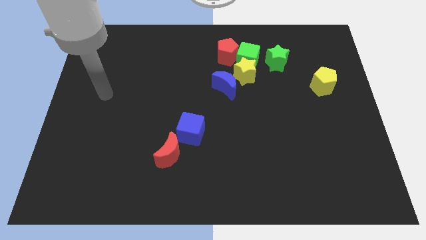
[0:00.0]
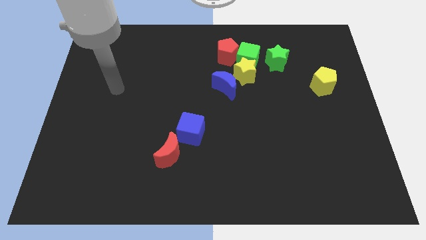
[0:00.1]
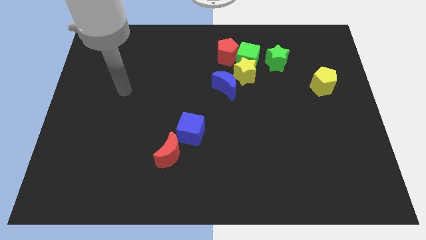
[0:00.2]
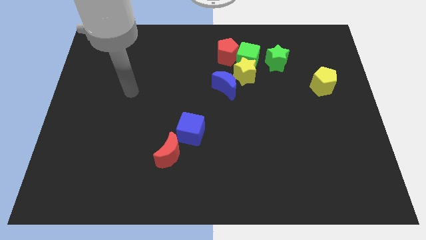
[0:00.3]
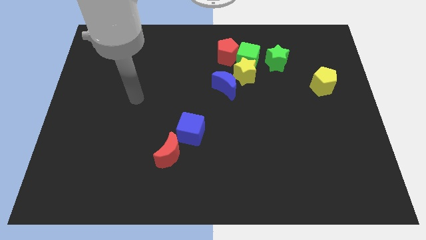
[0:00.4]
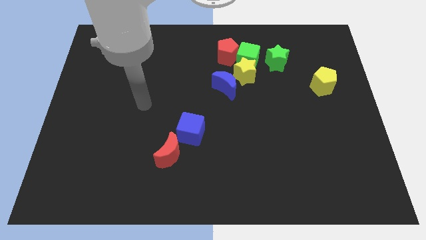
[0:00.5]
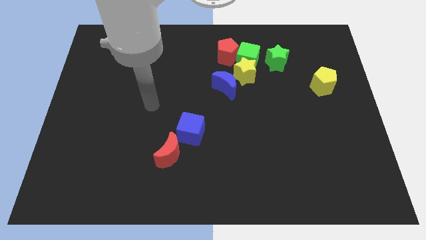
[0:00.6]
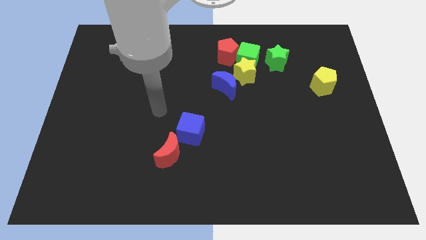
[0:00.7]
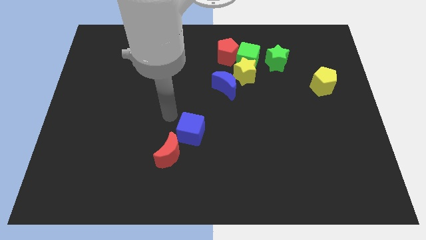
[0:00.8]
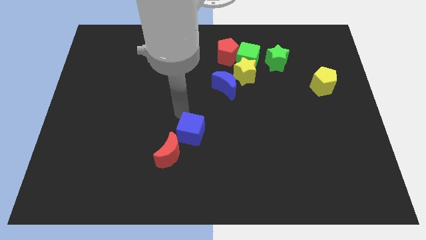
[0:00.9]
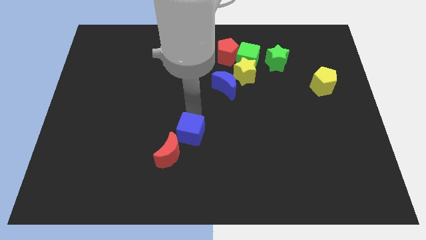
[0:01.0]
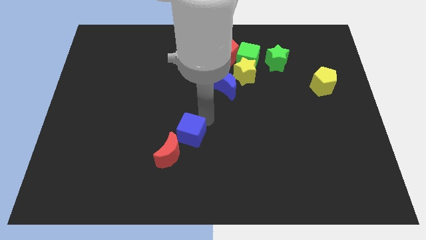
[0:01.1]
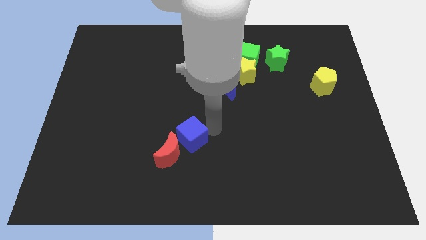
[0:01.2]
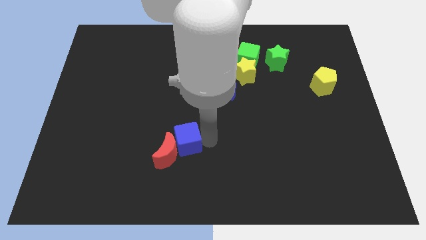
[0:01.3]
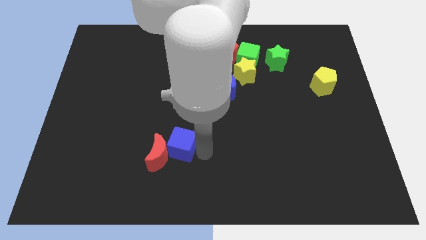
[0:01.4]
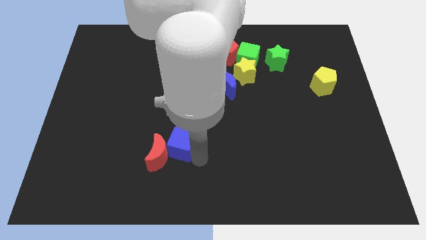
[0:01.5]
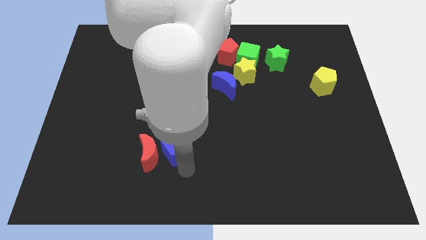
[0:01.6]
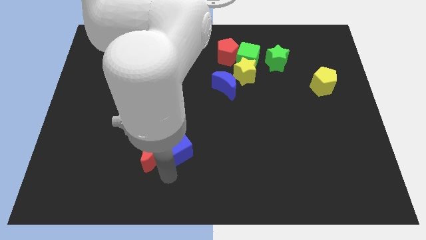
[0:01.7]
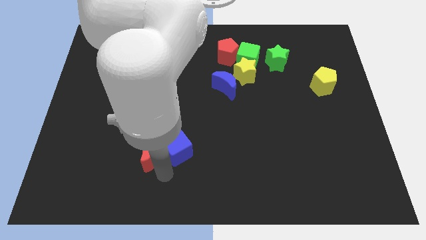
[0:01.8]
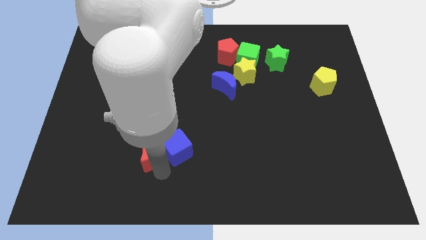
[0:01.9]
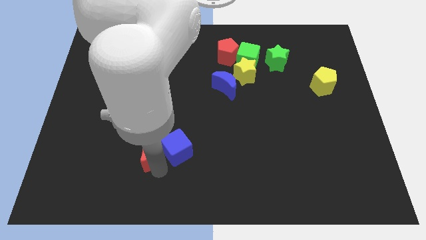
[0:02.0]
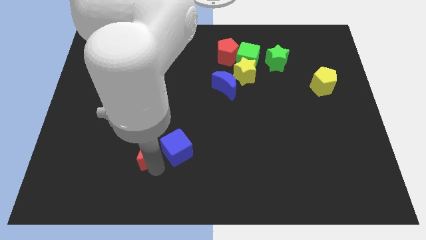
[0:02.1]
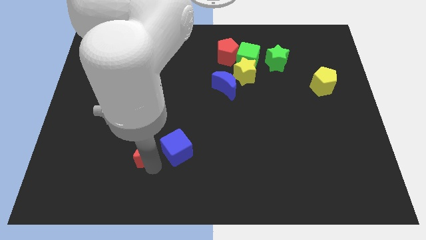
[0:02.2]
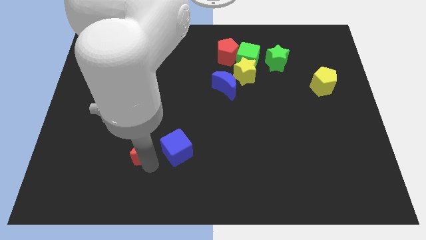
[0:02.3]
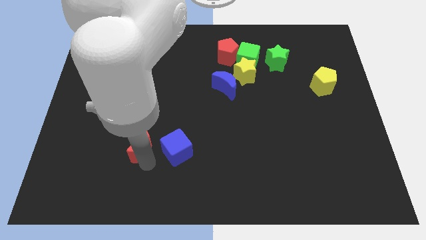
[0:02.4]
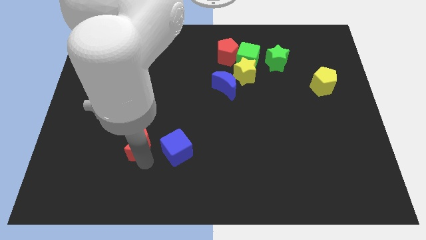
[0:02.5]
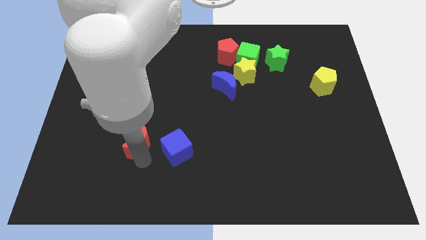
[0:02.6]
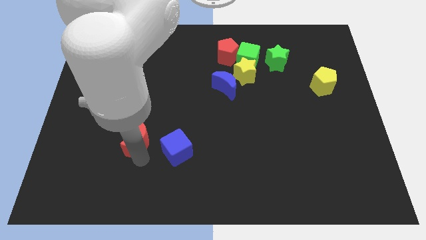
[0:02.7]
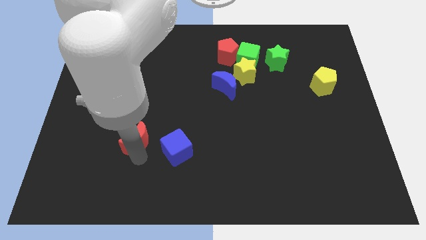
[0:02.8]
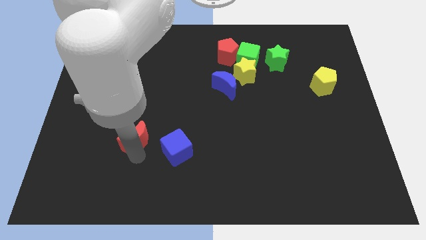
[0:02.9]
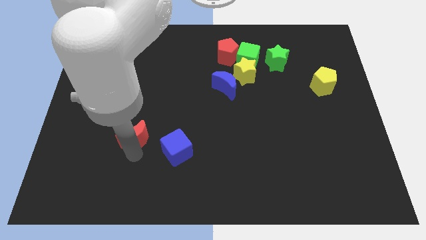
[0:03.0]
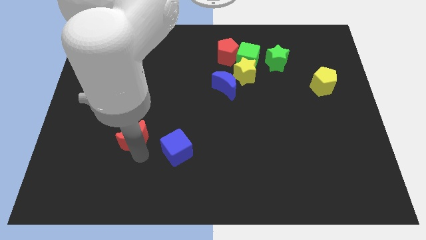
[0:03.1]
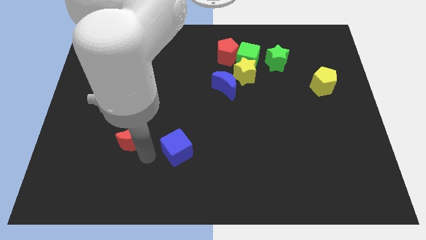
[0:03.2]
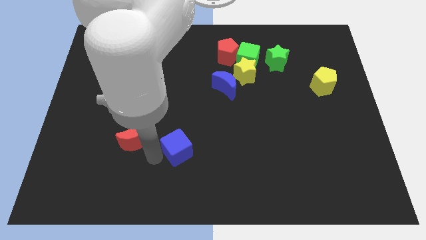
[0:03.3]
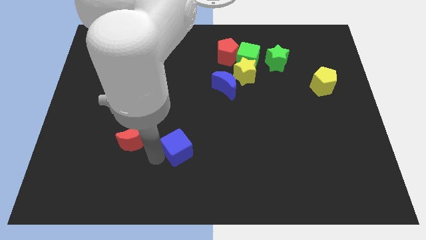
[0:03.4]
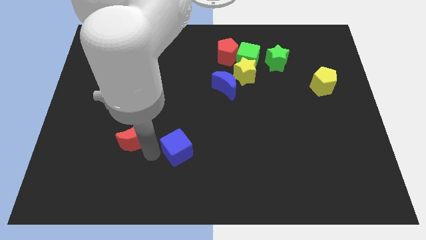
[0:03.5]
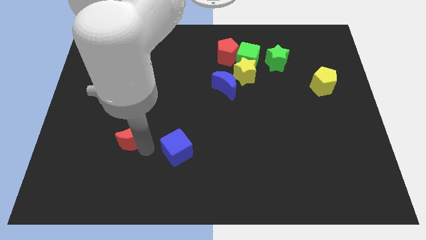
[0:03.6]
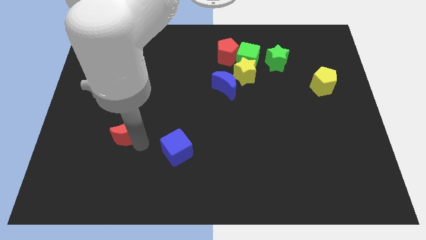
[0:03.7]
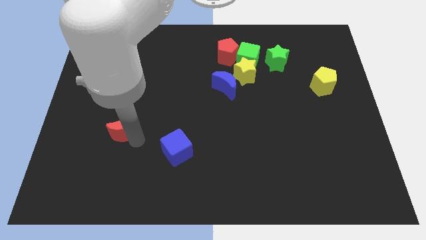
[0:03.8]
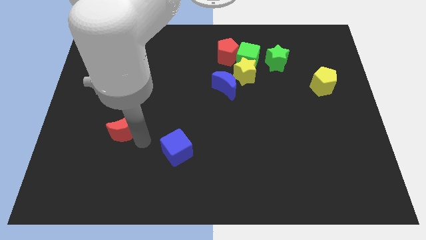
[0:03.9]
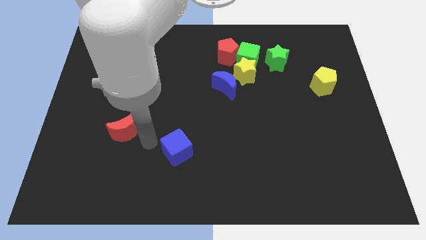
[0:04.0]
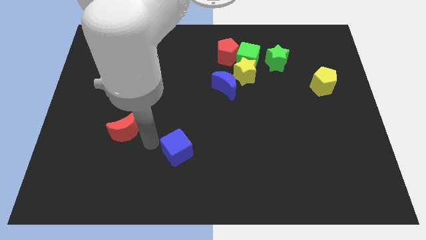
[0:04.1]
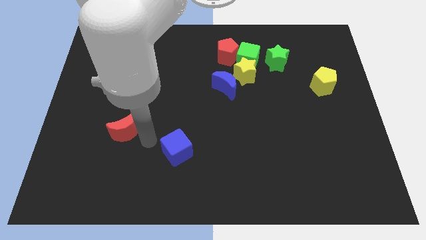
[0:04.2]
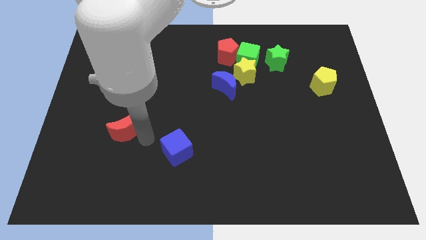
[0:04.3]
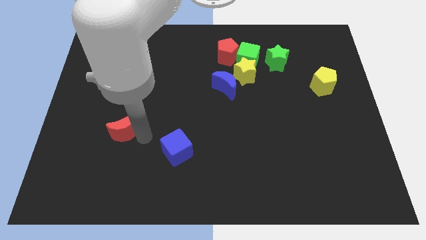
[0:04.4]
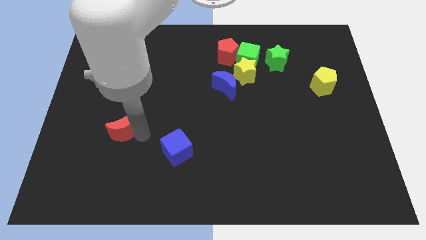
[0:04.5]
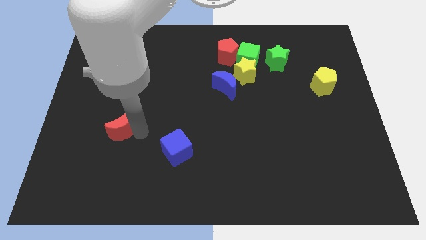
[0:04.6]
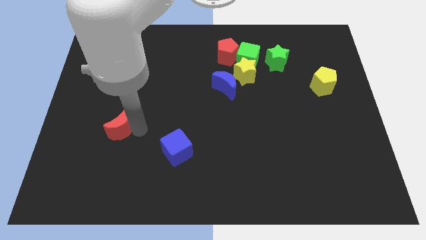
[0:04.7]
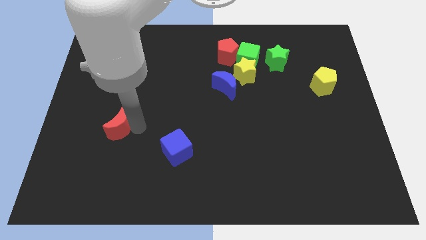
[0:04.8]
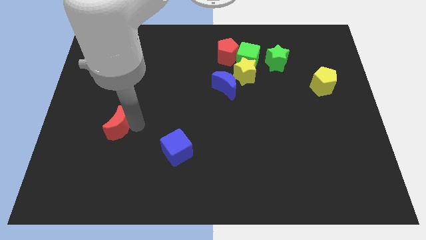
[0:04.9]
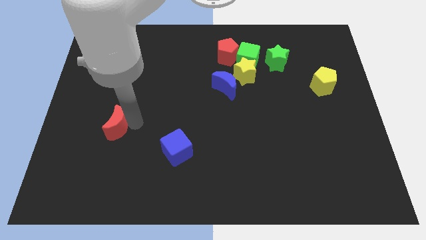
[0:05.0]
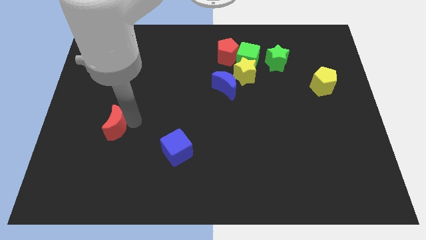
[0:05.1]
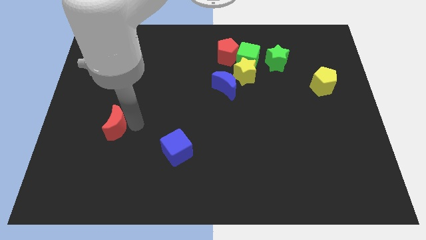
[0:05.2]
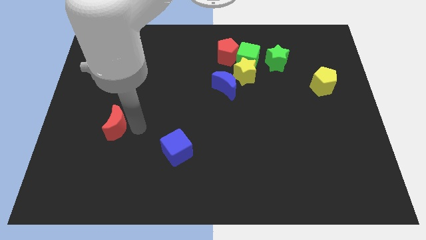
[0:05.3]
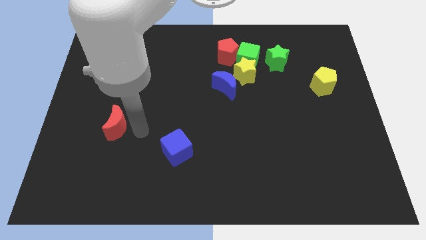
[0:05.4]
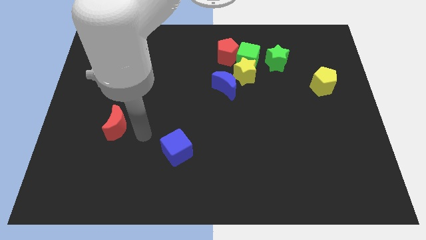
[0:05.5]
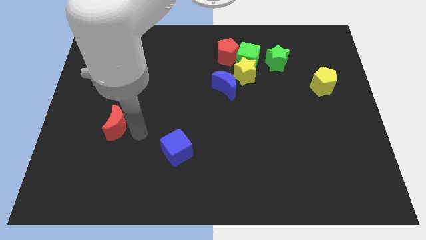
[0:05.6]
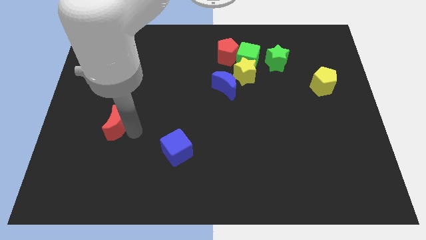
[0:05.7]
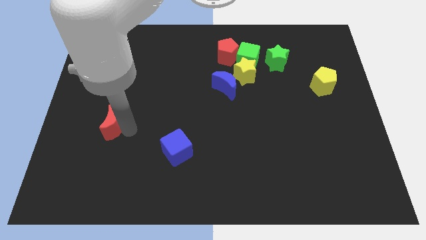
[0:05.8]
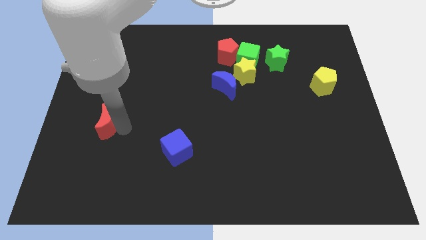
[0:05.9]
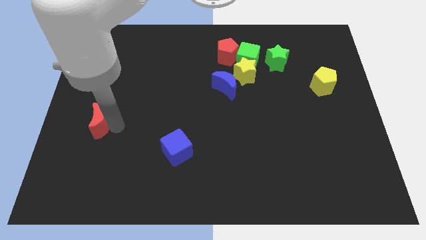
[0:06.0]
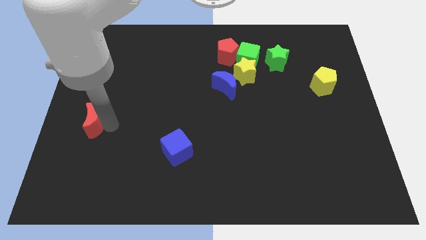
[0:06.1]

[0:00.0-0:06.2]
move the red moon to the center left

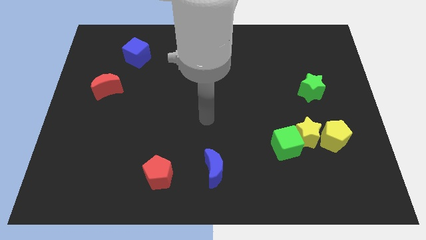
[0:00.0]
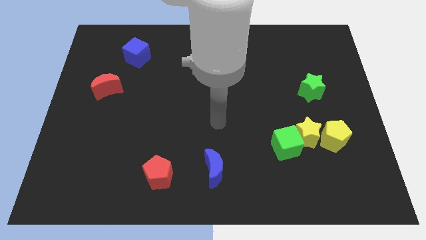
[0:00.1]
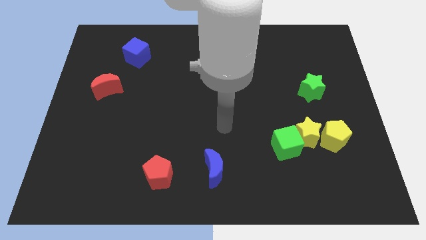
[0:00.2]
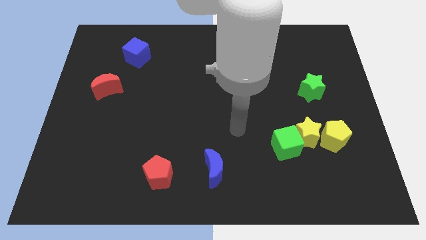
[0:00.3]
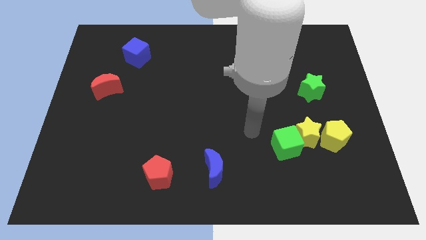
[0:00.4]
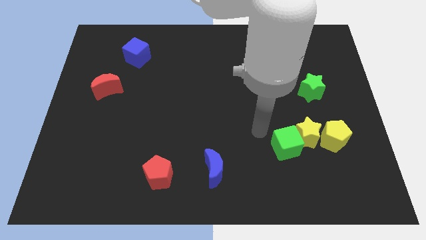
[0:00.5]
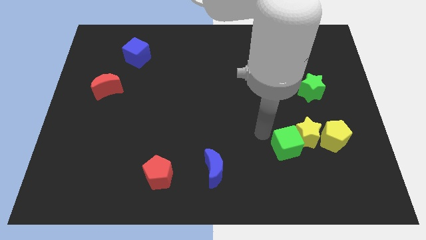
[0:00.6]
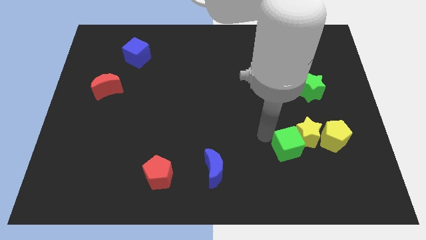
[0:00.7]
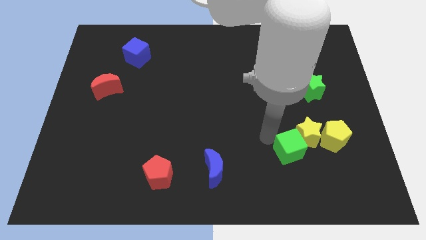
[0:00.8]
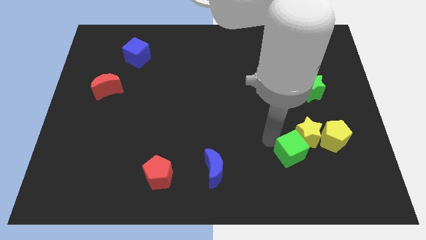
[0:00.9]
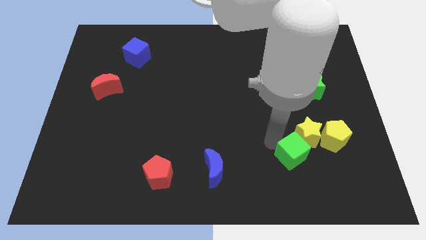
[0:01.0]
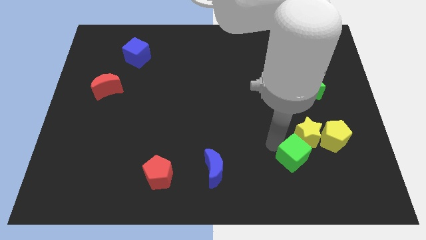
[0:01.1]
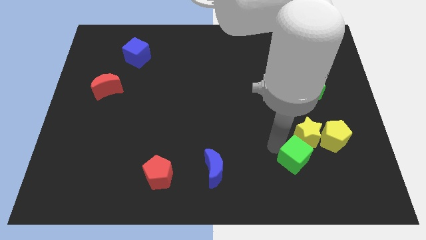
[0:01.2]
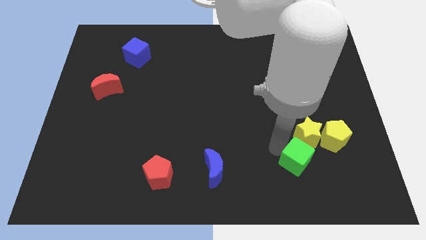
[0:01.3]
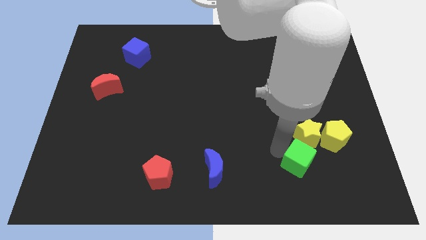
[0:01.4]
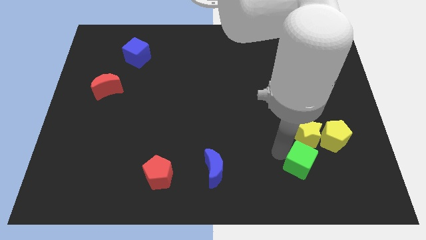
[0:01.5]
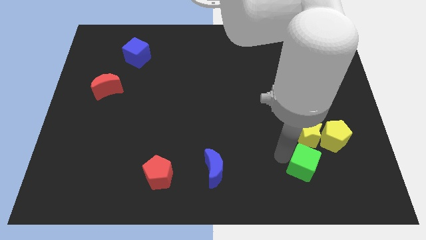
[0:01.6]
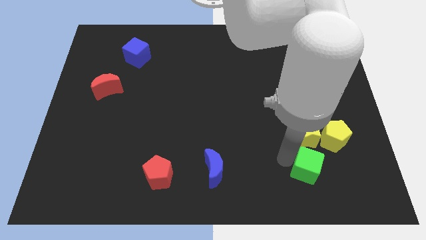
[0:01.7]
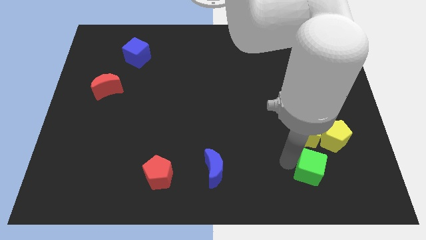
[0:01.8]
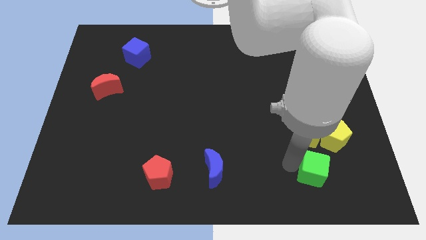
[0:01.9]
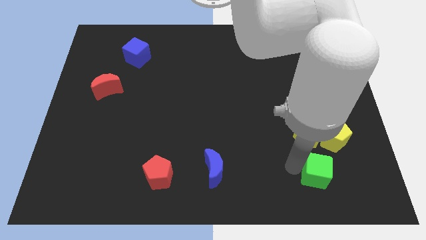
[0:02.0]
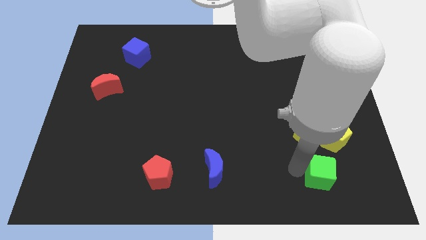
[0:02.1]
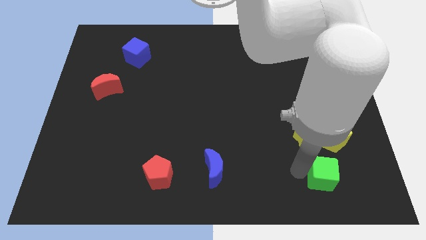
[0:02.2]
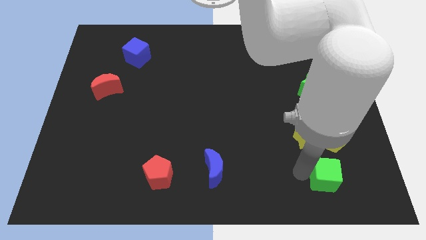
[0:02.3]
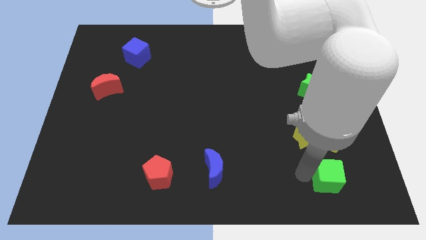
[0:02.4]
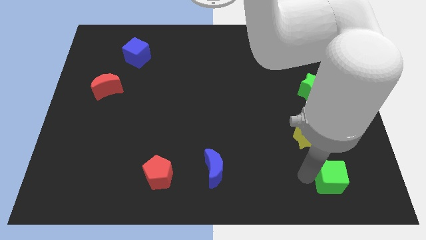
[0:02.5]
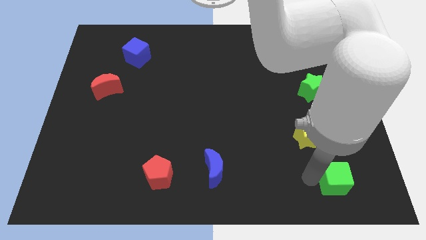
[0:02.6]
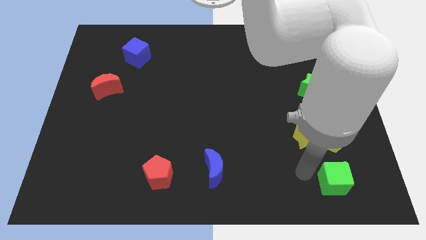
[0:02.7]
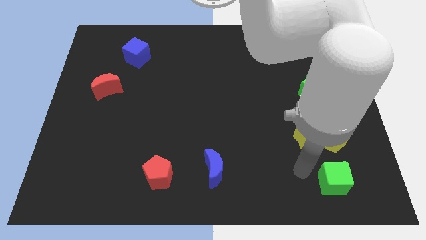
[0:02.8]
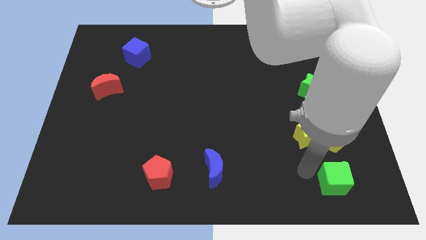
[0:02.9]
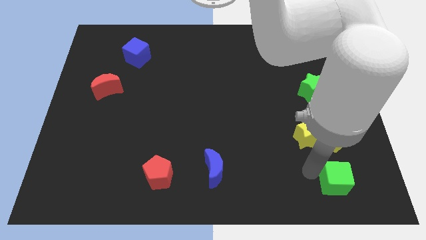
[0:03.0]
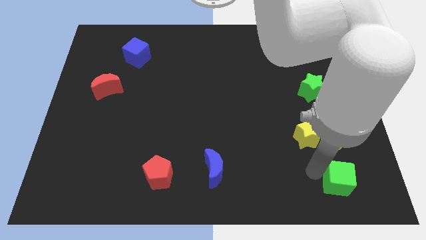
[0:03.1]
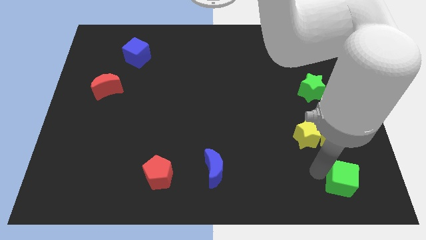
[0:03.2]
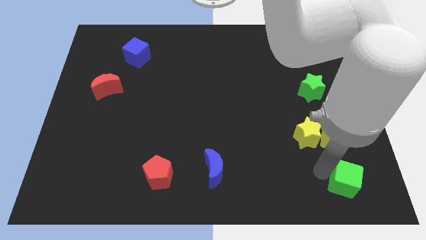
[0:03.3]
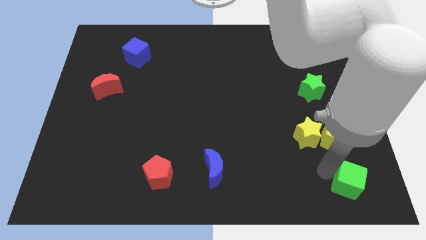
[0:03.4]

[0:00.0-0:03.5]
push the green cube to the lower right corner
